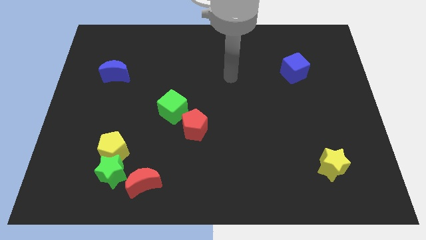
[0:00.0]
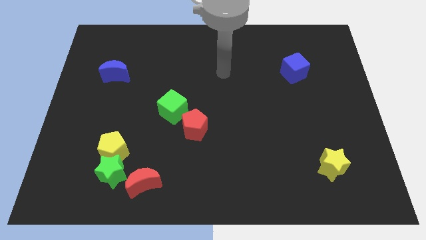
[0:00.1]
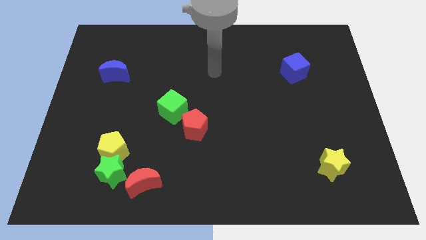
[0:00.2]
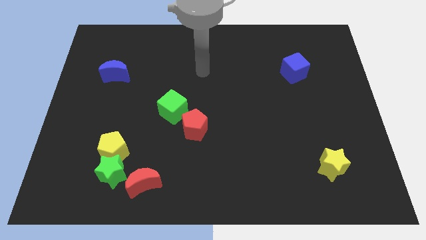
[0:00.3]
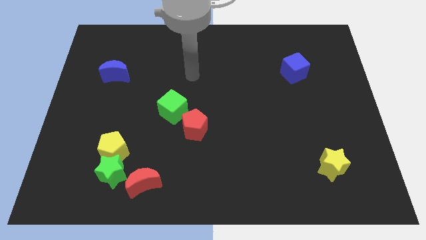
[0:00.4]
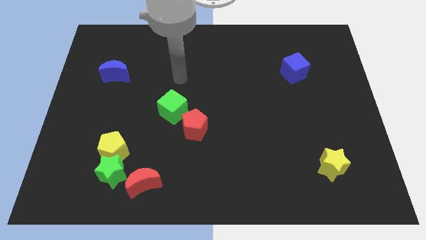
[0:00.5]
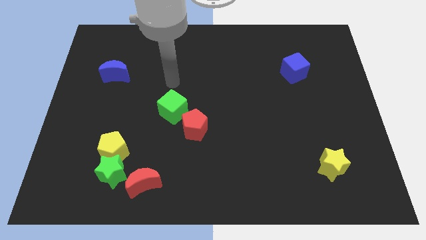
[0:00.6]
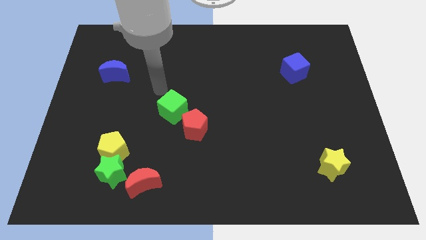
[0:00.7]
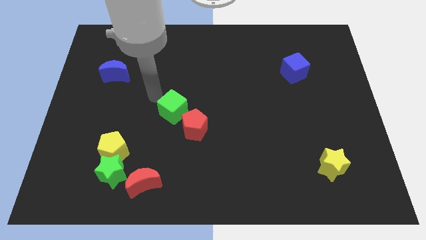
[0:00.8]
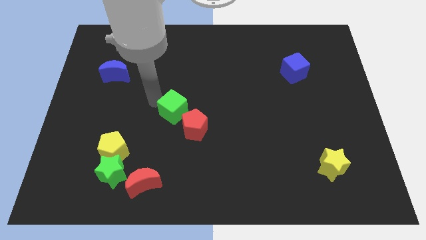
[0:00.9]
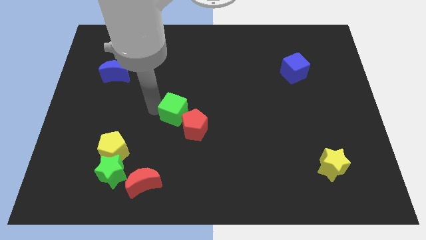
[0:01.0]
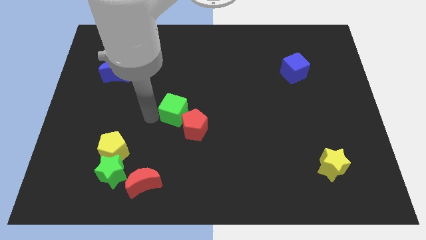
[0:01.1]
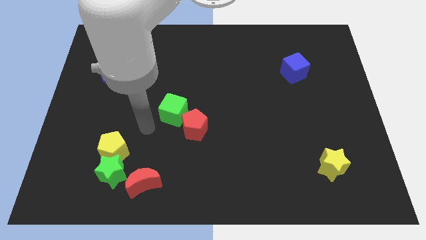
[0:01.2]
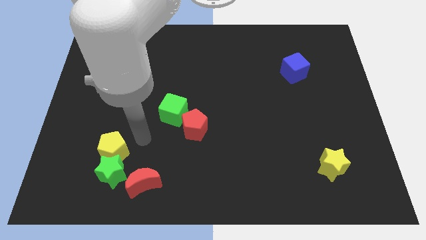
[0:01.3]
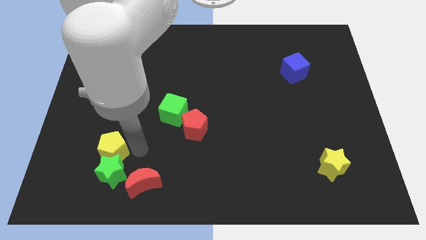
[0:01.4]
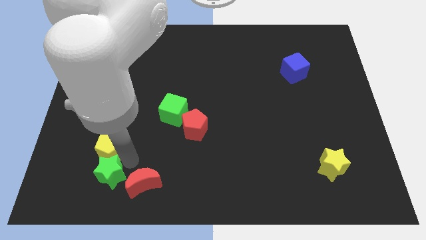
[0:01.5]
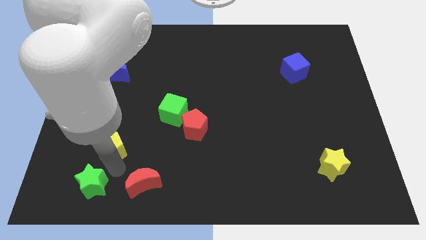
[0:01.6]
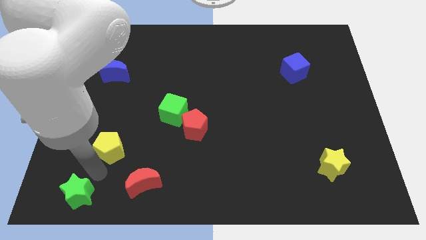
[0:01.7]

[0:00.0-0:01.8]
pull the yellow pentagon apart from the green star

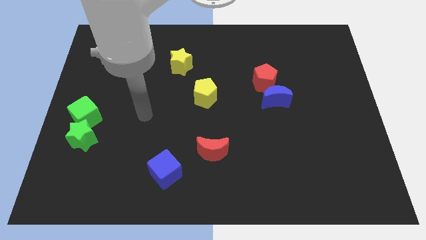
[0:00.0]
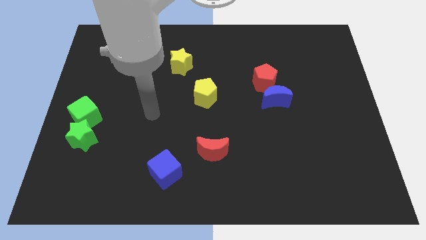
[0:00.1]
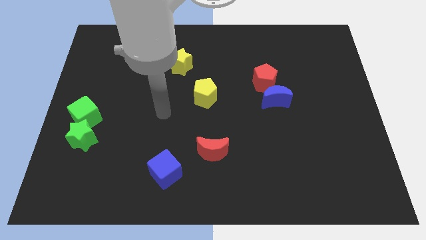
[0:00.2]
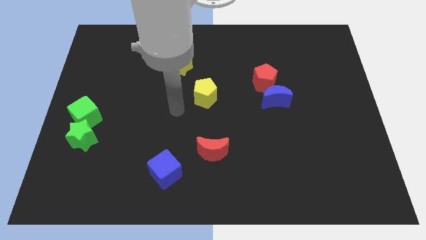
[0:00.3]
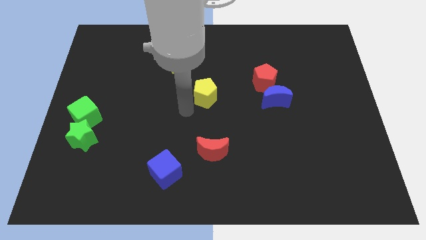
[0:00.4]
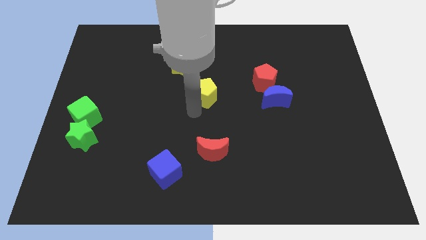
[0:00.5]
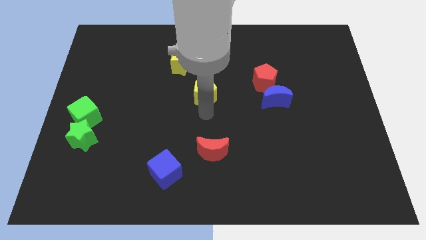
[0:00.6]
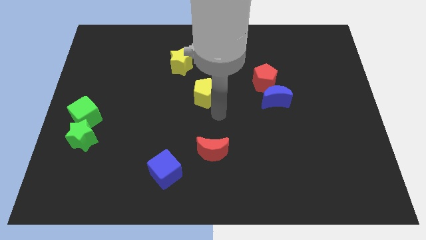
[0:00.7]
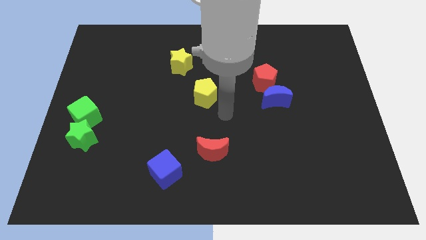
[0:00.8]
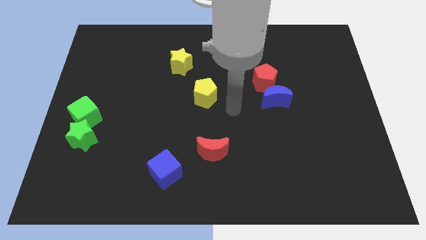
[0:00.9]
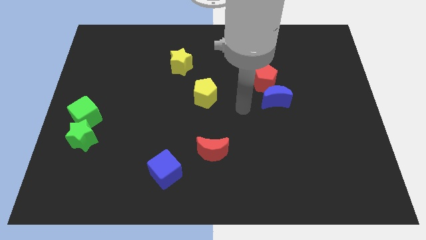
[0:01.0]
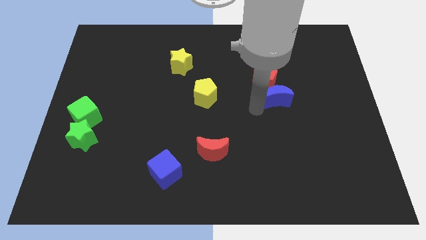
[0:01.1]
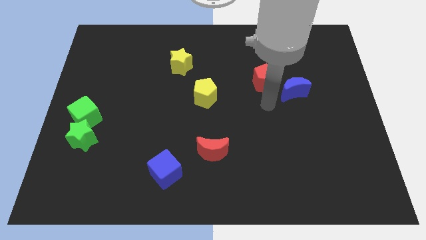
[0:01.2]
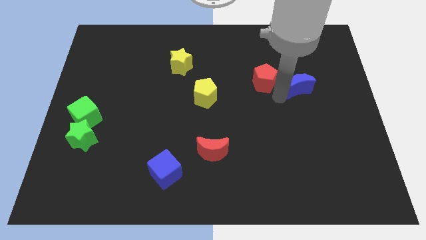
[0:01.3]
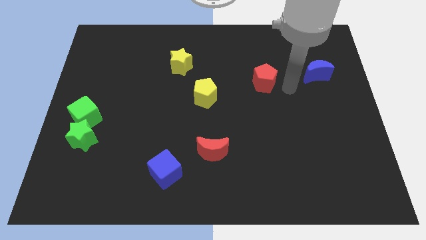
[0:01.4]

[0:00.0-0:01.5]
separate the red pentagon from the blue moon

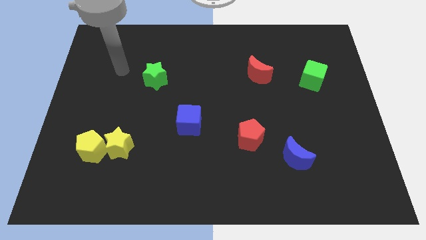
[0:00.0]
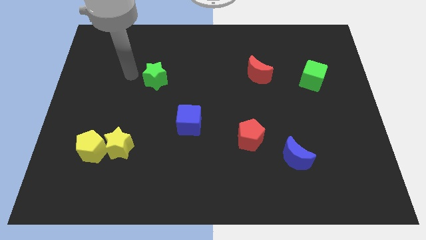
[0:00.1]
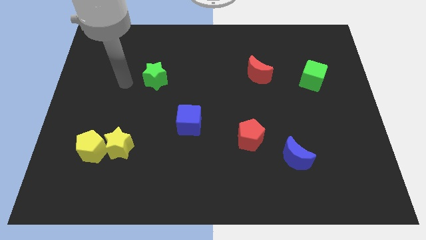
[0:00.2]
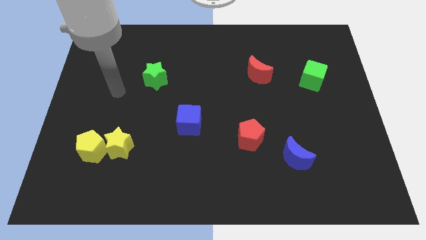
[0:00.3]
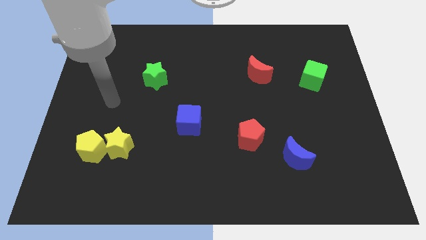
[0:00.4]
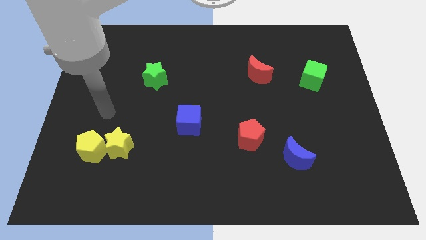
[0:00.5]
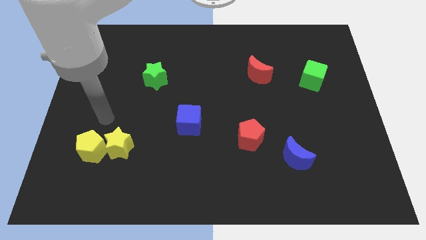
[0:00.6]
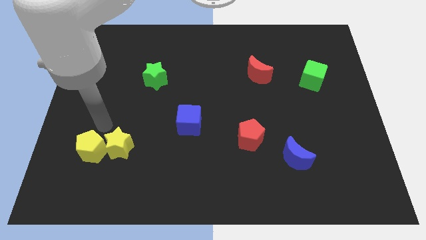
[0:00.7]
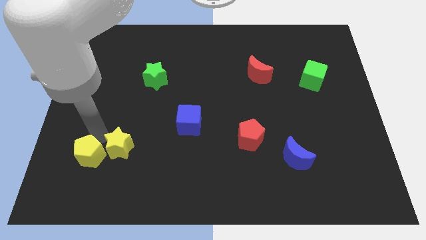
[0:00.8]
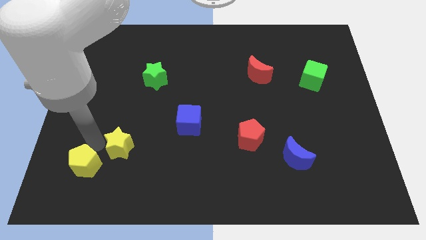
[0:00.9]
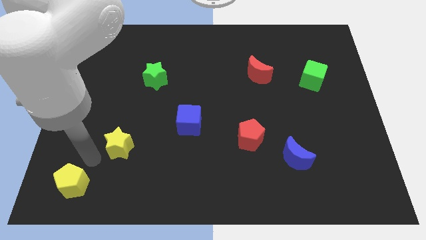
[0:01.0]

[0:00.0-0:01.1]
separate the yellow star from the yellow pentagon

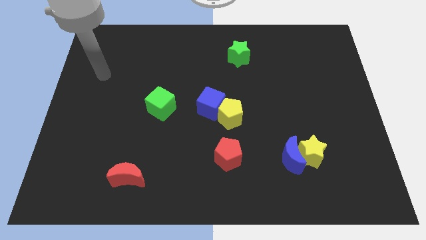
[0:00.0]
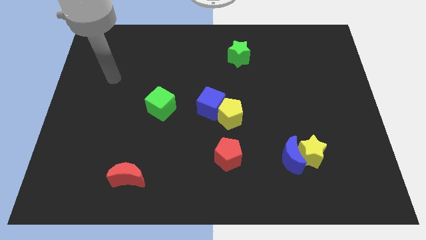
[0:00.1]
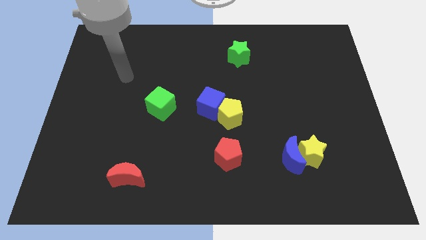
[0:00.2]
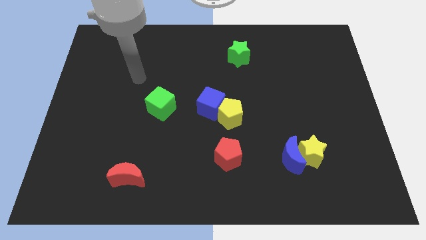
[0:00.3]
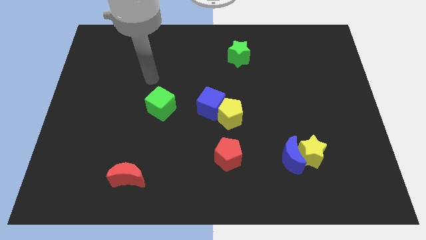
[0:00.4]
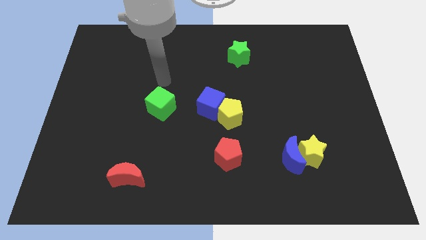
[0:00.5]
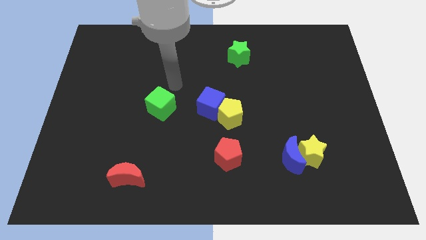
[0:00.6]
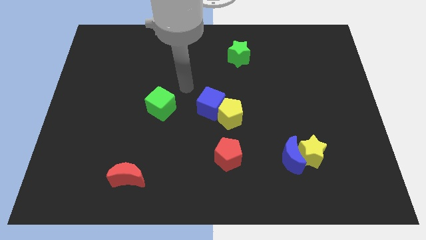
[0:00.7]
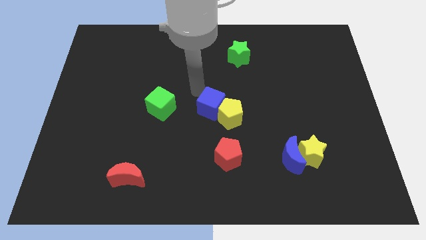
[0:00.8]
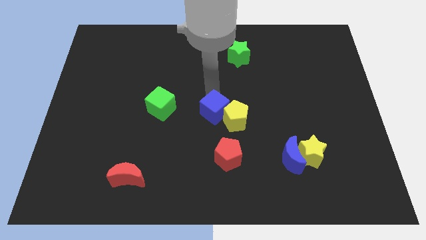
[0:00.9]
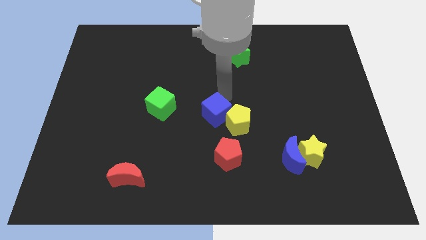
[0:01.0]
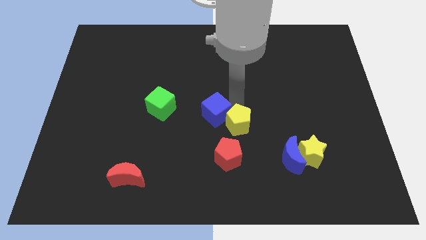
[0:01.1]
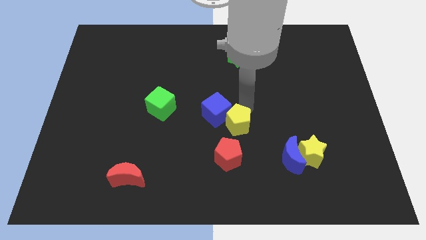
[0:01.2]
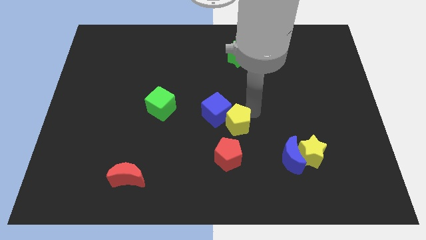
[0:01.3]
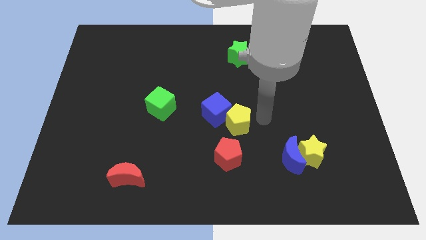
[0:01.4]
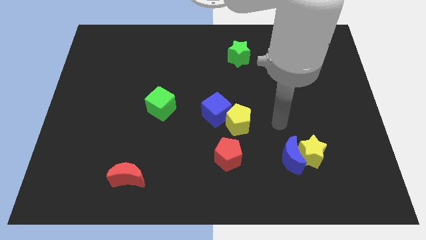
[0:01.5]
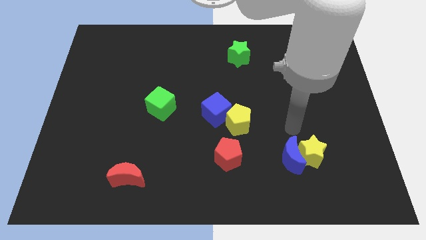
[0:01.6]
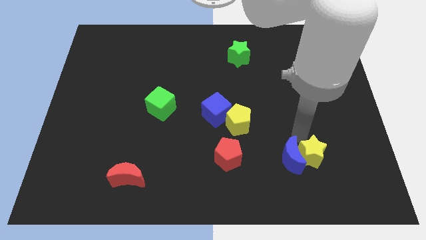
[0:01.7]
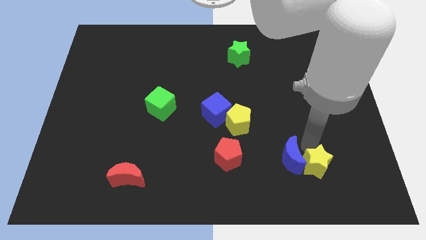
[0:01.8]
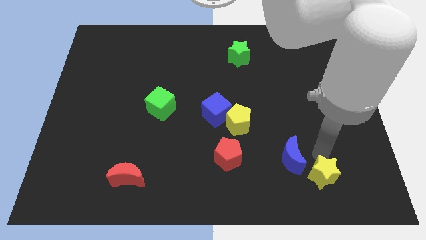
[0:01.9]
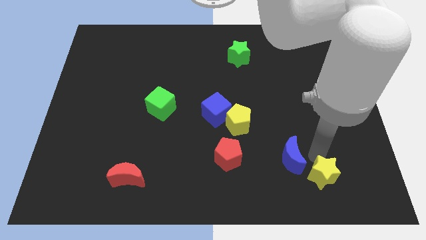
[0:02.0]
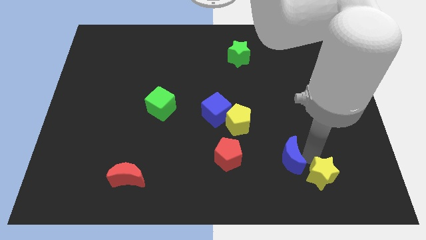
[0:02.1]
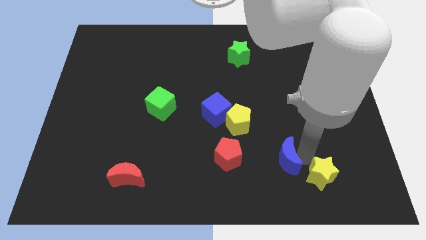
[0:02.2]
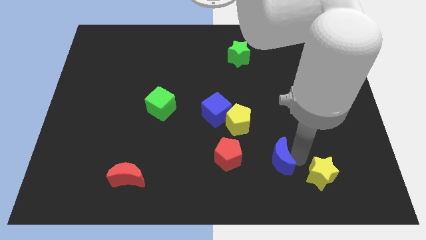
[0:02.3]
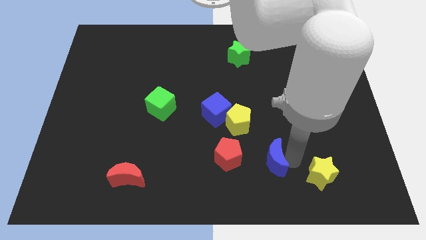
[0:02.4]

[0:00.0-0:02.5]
separate the blue moon from the yellow star

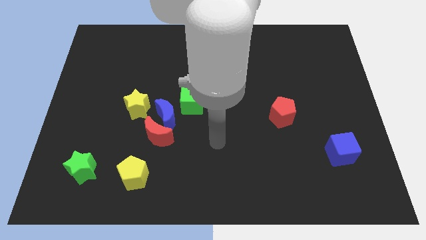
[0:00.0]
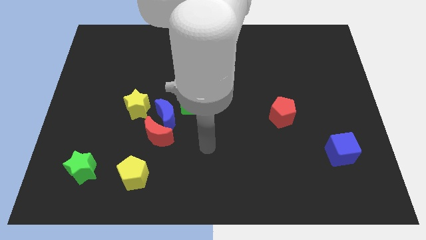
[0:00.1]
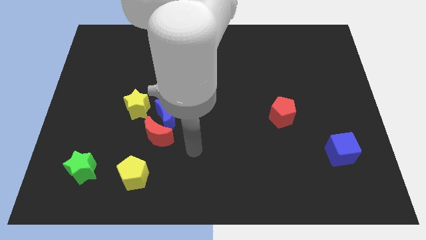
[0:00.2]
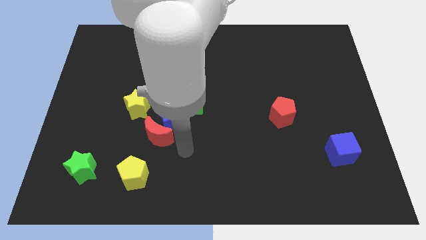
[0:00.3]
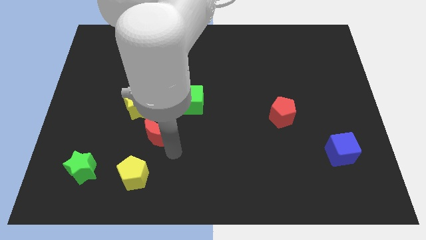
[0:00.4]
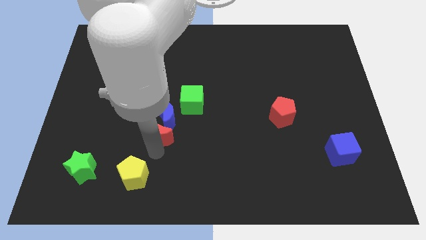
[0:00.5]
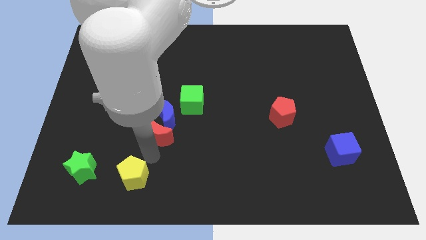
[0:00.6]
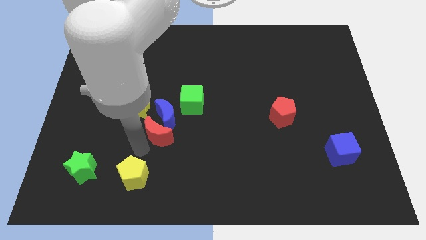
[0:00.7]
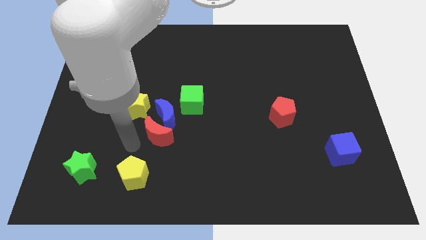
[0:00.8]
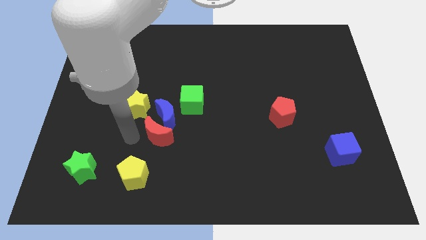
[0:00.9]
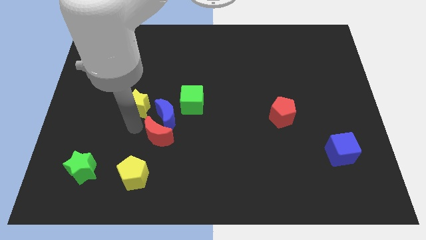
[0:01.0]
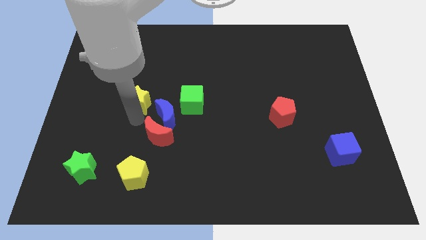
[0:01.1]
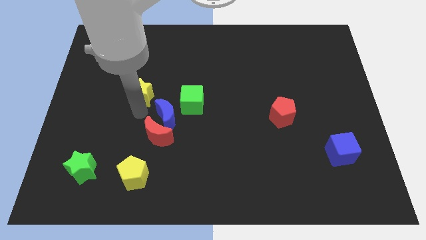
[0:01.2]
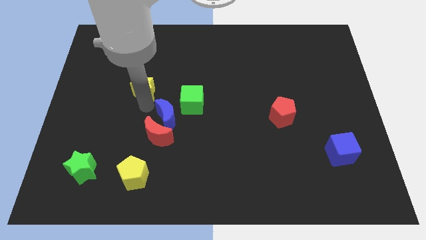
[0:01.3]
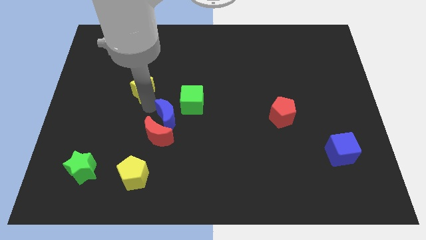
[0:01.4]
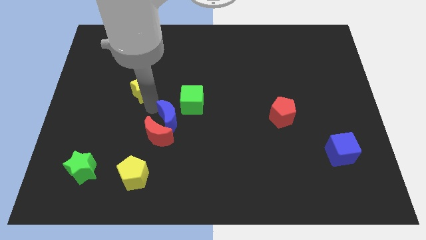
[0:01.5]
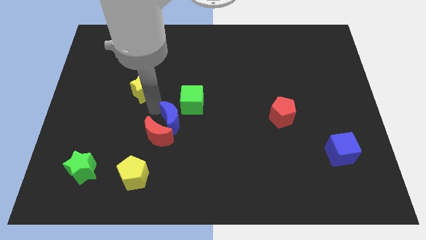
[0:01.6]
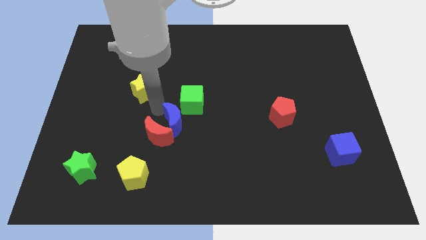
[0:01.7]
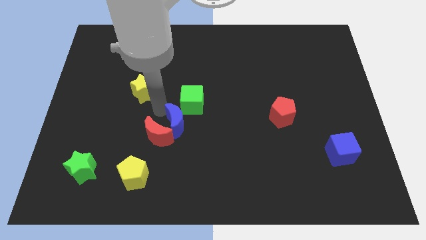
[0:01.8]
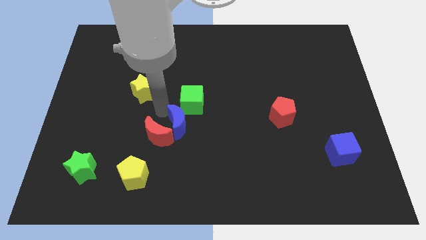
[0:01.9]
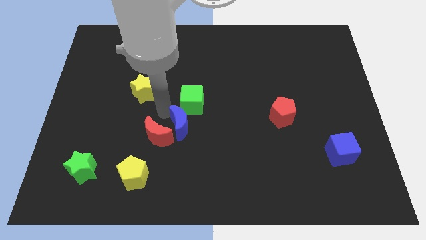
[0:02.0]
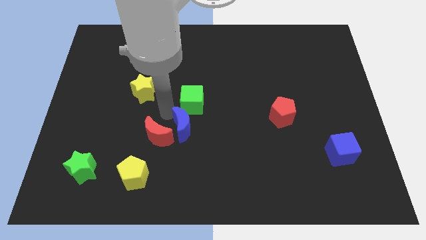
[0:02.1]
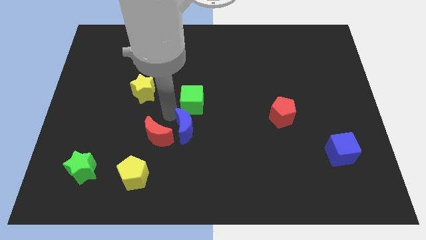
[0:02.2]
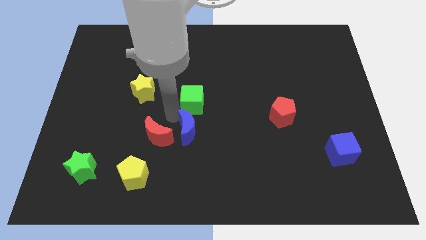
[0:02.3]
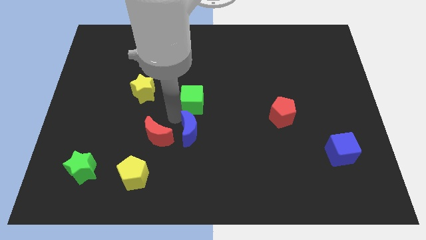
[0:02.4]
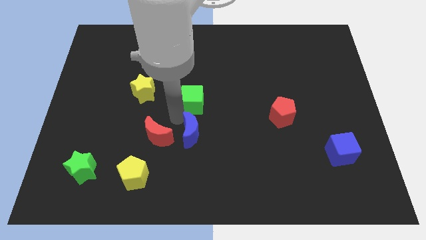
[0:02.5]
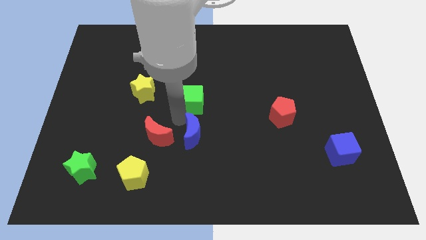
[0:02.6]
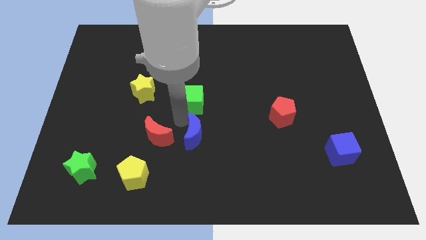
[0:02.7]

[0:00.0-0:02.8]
separate the blue moon from the red moon, green cube, and yellow star
